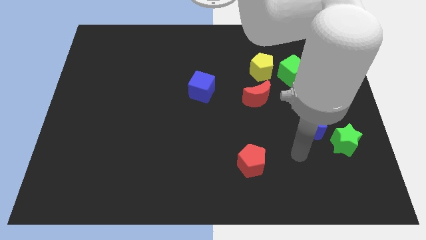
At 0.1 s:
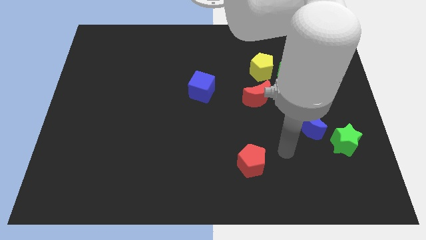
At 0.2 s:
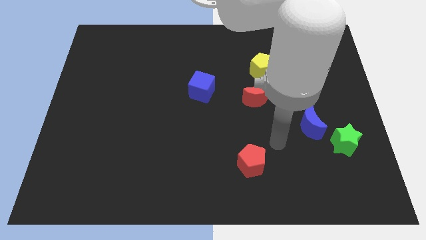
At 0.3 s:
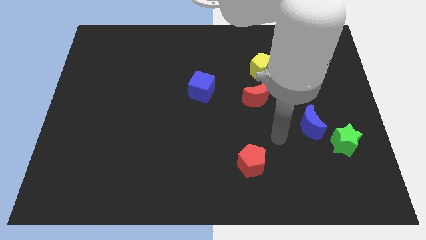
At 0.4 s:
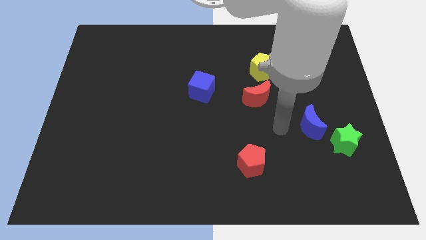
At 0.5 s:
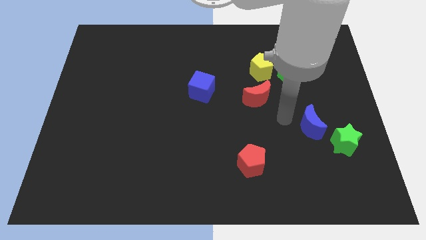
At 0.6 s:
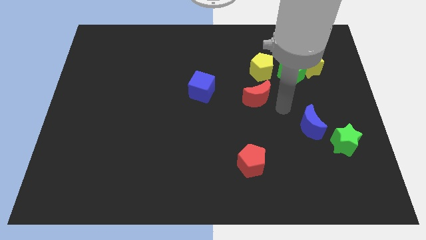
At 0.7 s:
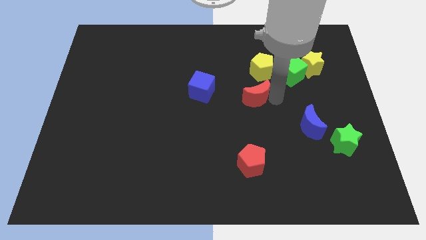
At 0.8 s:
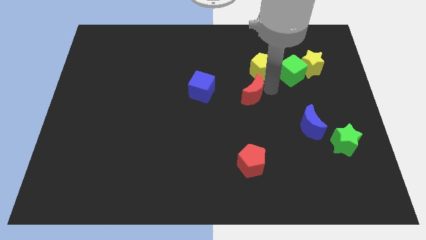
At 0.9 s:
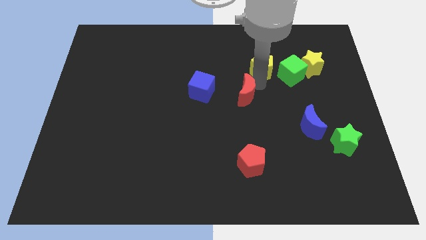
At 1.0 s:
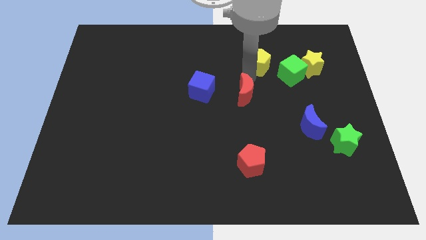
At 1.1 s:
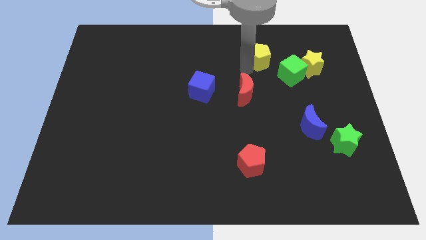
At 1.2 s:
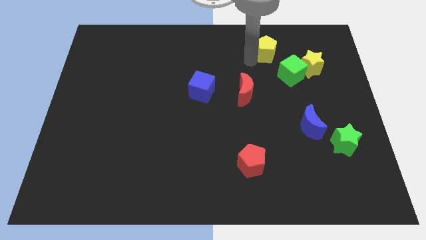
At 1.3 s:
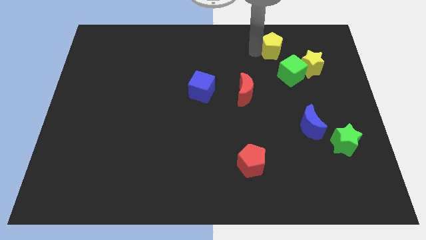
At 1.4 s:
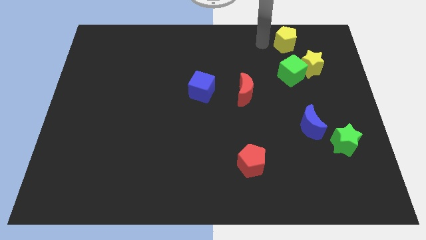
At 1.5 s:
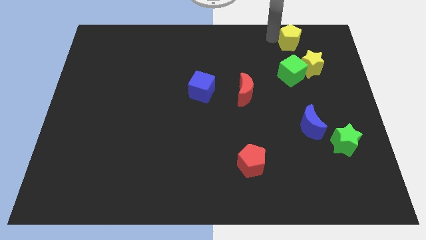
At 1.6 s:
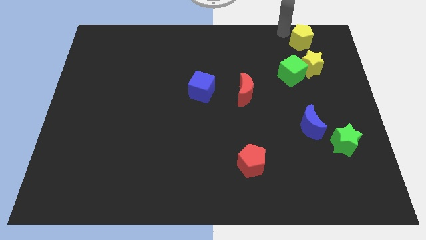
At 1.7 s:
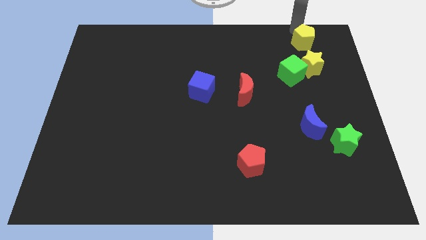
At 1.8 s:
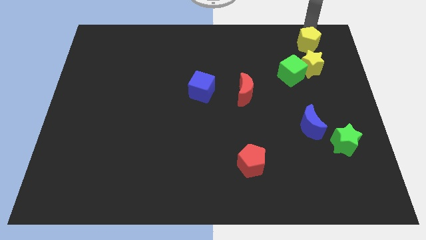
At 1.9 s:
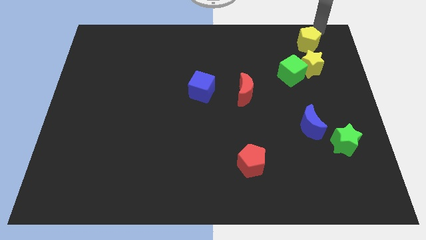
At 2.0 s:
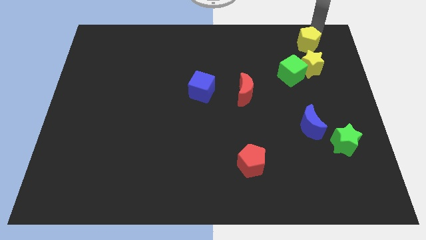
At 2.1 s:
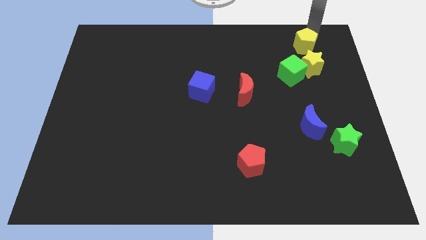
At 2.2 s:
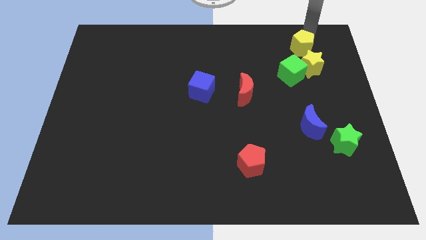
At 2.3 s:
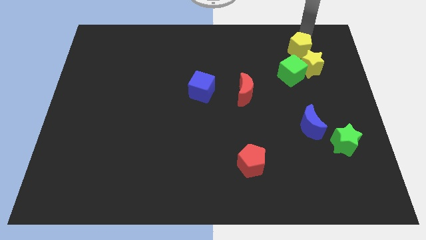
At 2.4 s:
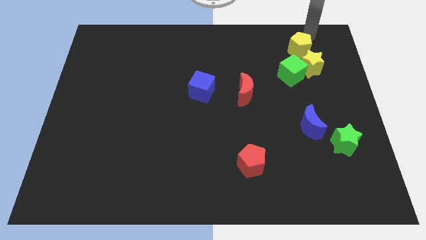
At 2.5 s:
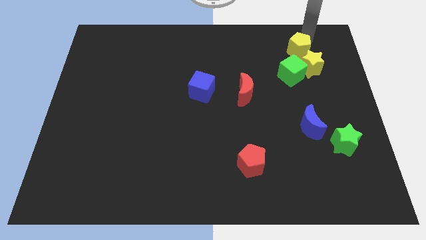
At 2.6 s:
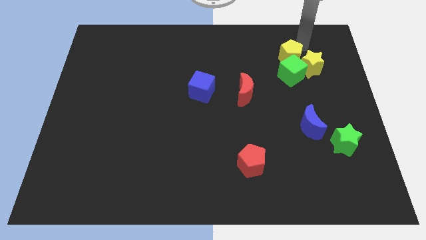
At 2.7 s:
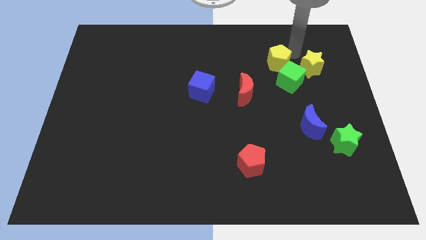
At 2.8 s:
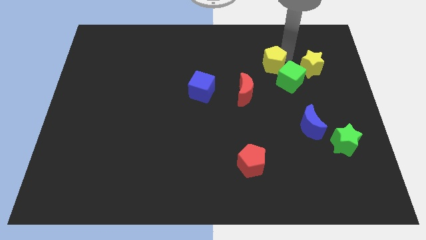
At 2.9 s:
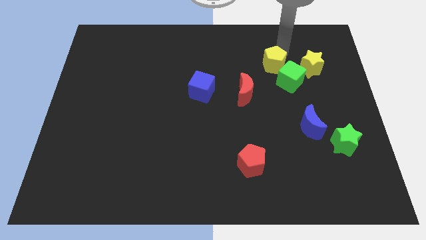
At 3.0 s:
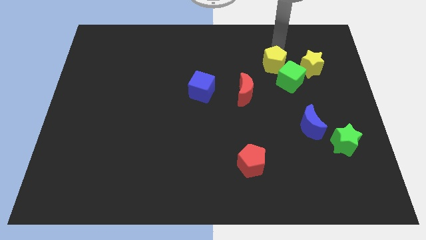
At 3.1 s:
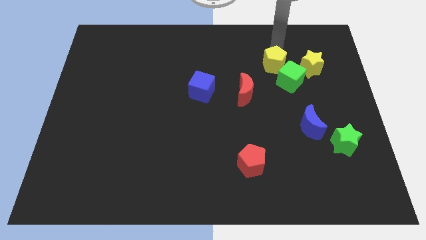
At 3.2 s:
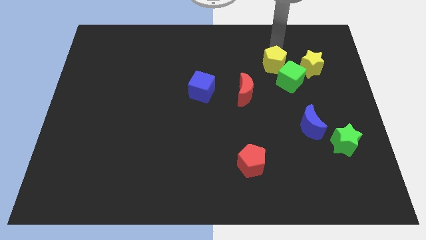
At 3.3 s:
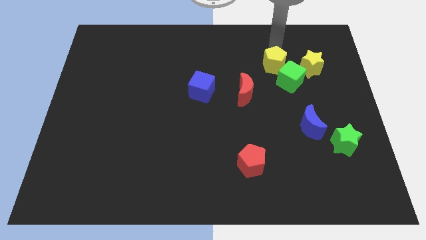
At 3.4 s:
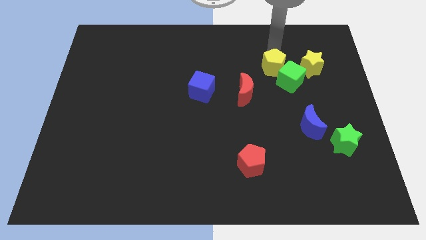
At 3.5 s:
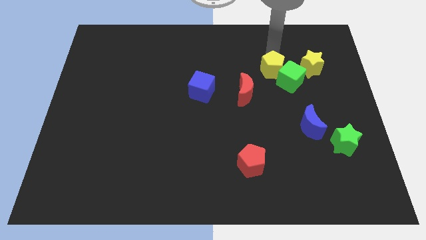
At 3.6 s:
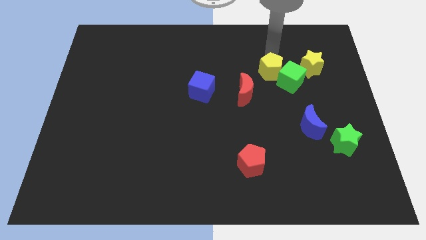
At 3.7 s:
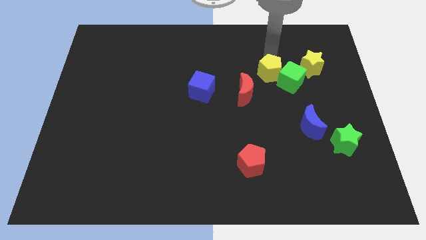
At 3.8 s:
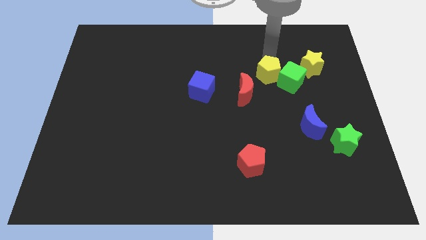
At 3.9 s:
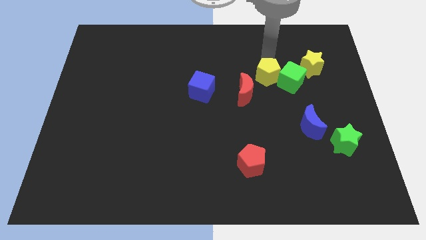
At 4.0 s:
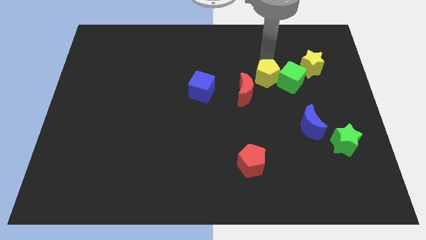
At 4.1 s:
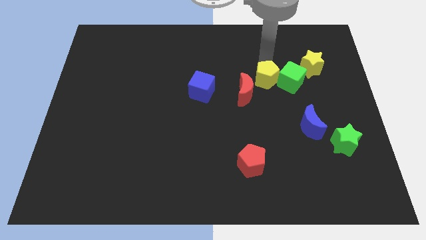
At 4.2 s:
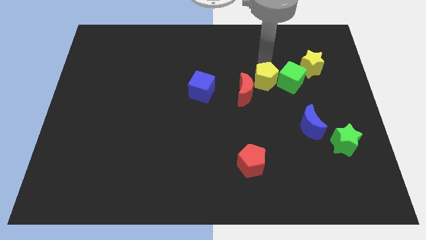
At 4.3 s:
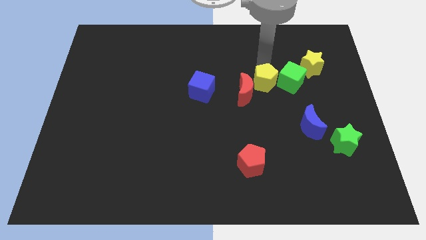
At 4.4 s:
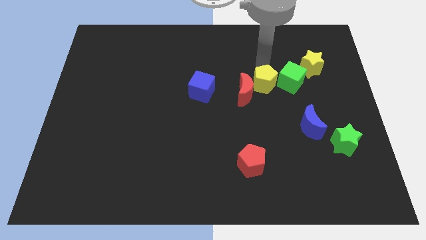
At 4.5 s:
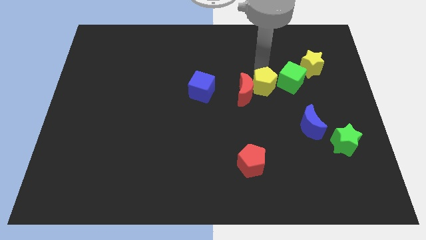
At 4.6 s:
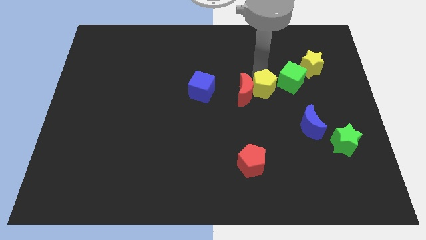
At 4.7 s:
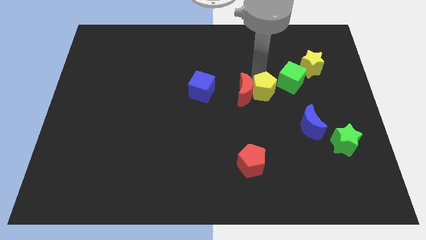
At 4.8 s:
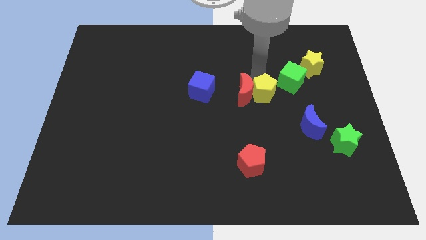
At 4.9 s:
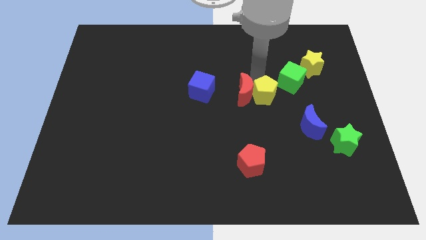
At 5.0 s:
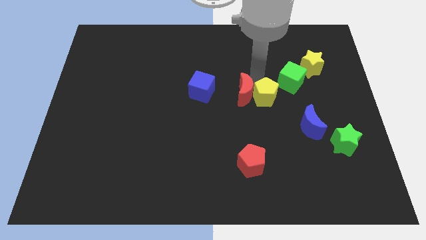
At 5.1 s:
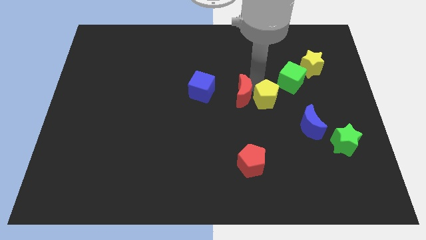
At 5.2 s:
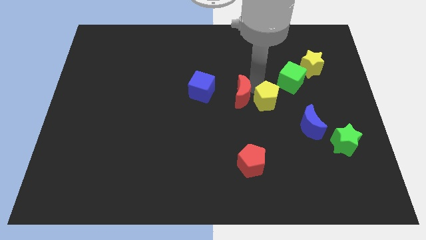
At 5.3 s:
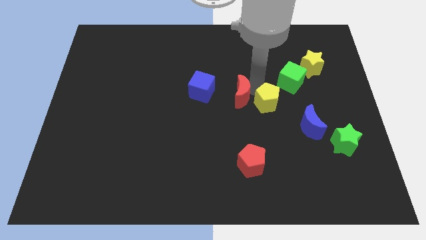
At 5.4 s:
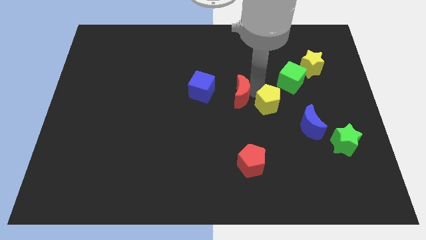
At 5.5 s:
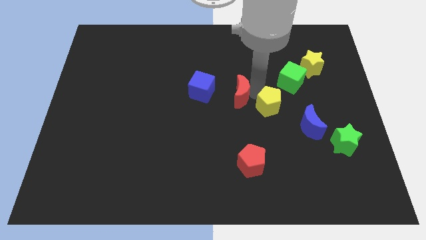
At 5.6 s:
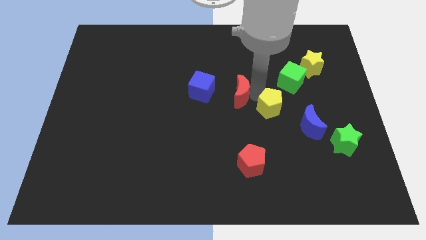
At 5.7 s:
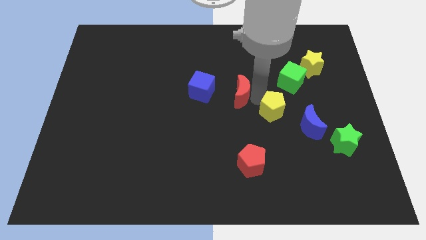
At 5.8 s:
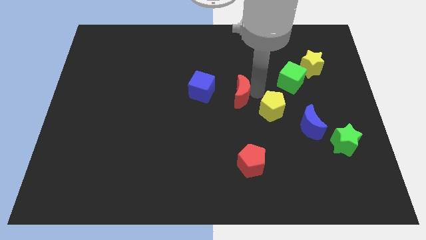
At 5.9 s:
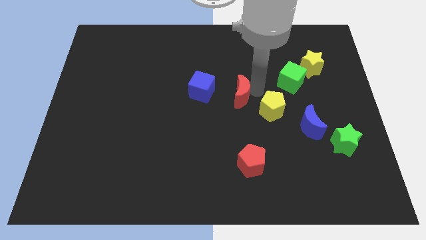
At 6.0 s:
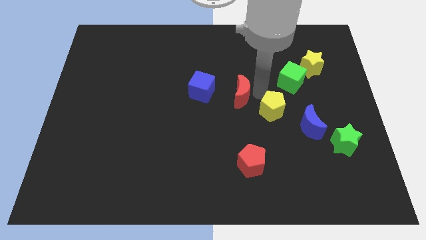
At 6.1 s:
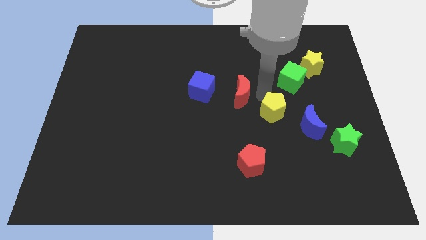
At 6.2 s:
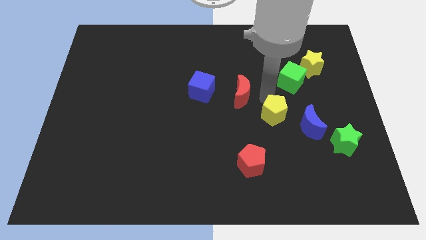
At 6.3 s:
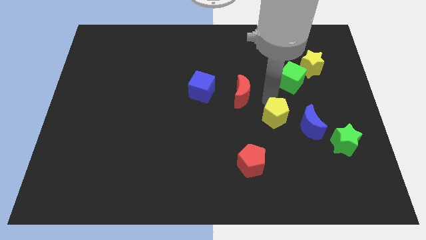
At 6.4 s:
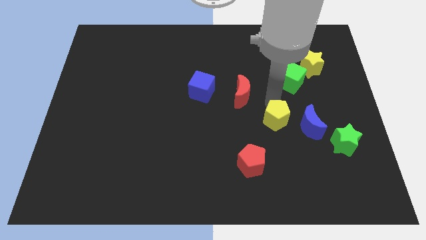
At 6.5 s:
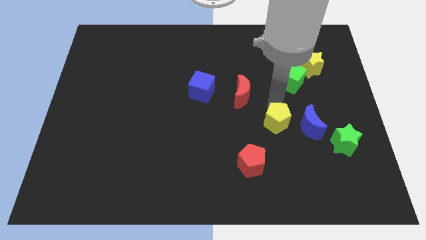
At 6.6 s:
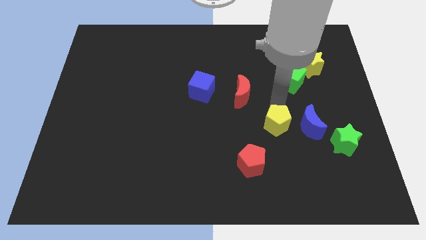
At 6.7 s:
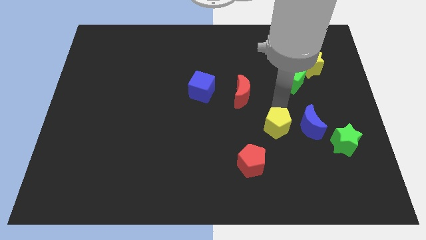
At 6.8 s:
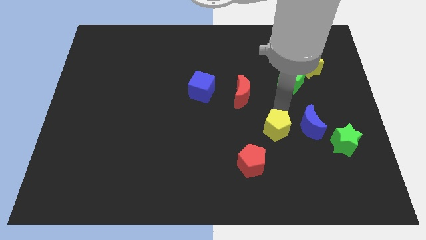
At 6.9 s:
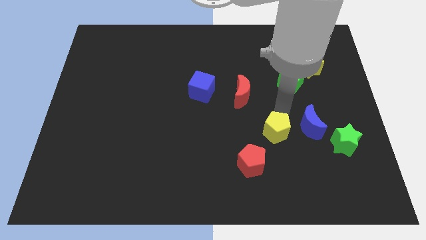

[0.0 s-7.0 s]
push the yellow pentagon just left of the green star

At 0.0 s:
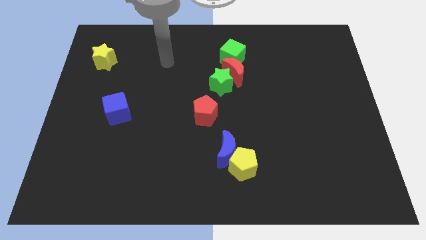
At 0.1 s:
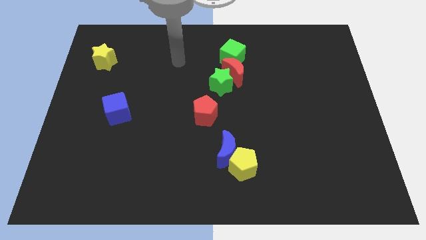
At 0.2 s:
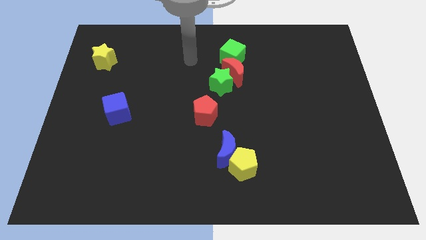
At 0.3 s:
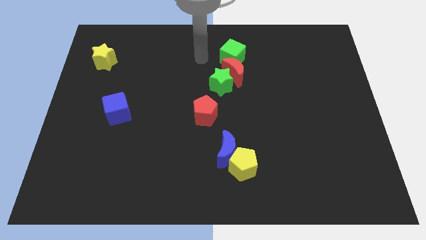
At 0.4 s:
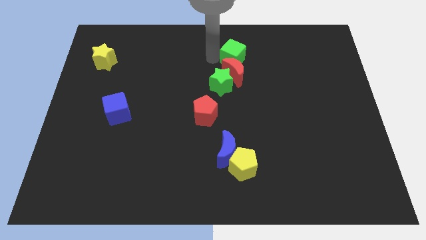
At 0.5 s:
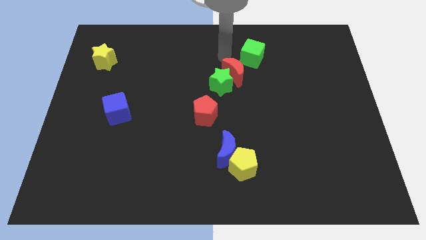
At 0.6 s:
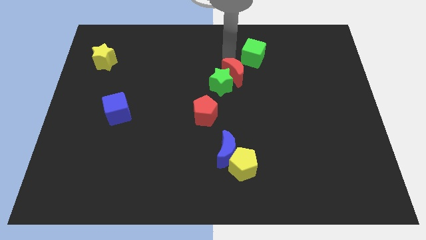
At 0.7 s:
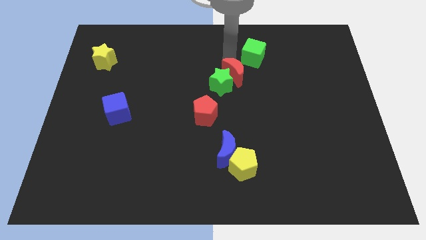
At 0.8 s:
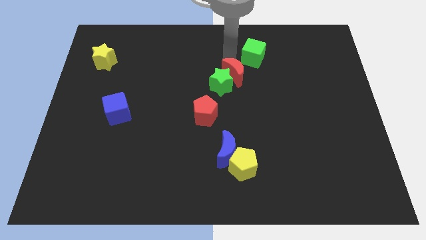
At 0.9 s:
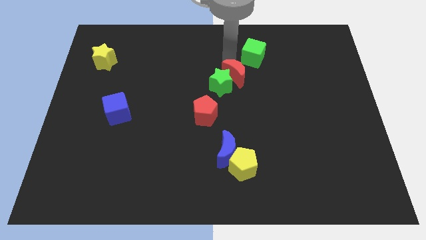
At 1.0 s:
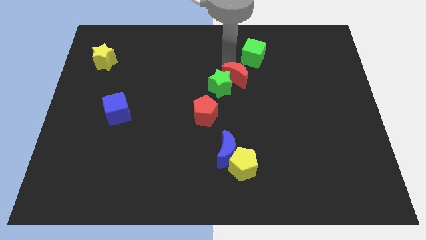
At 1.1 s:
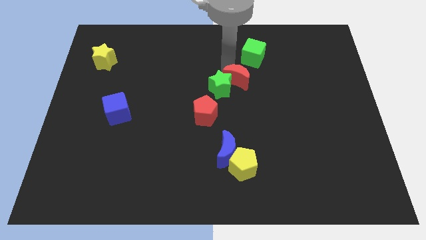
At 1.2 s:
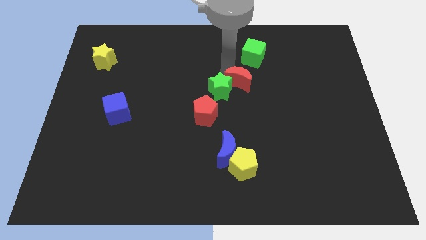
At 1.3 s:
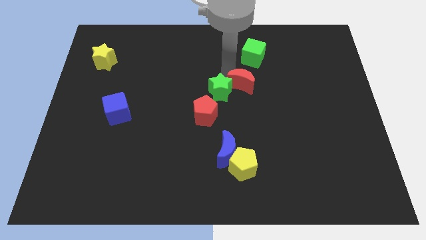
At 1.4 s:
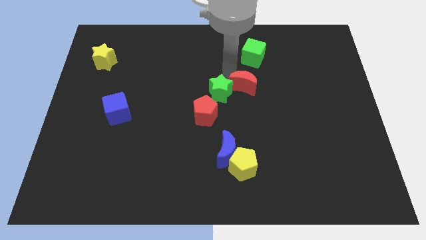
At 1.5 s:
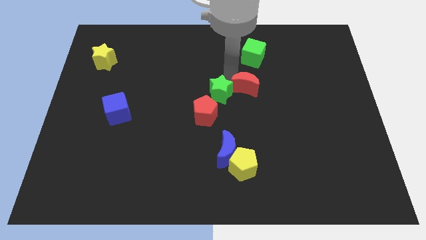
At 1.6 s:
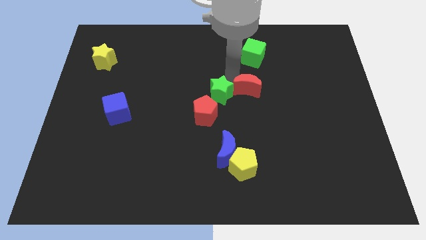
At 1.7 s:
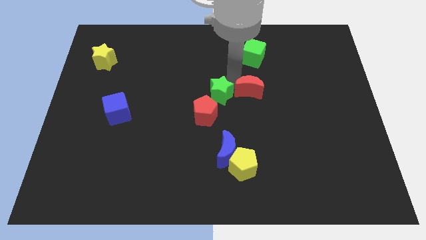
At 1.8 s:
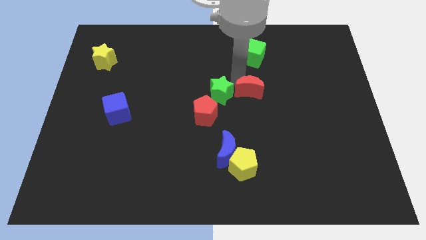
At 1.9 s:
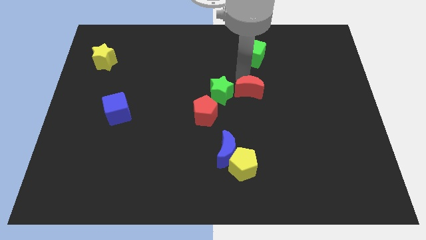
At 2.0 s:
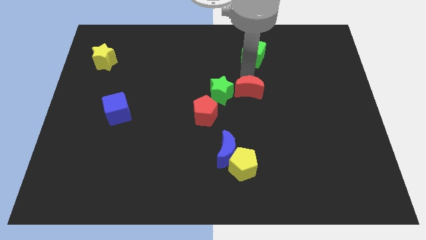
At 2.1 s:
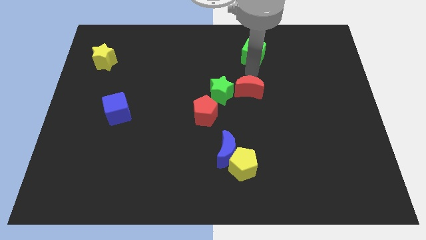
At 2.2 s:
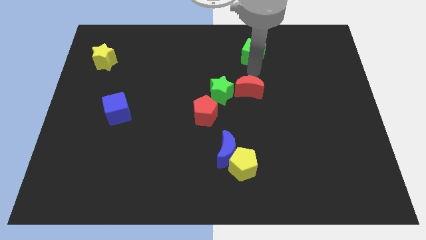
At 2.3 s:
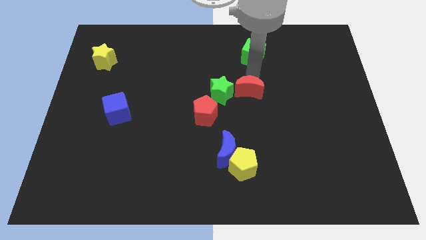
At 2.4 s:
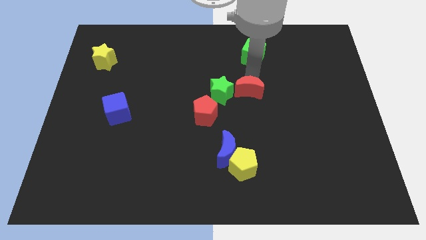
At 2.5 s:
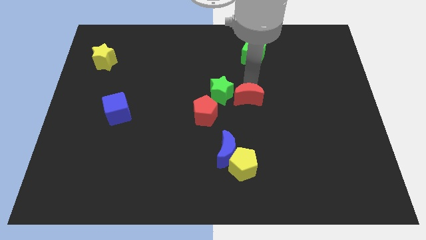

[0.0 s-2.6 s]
put the red moon diagonally down and to the right of the green star
